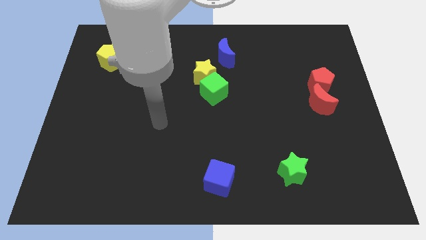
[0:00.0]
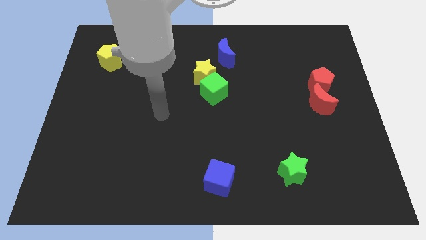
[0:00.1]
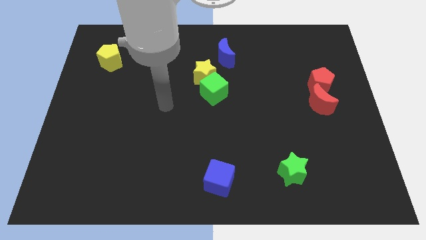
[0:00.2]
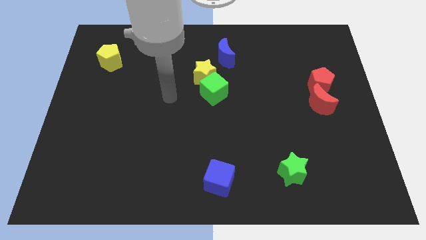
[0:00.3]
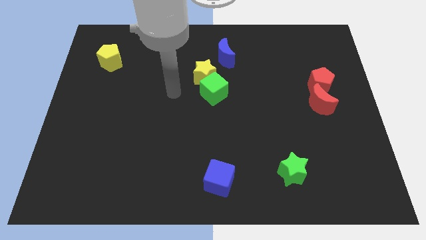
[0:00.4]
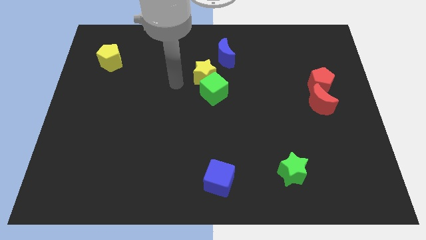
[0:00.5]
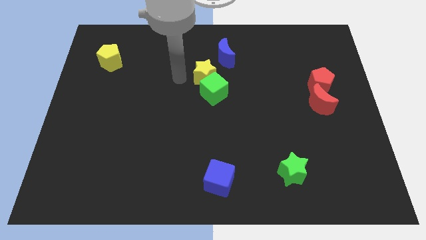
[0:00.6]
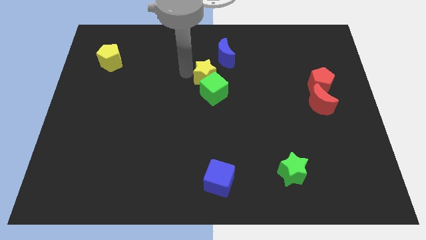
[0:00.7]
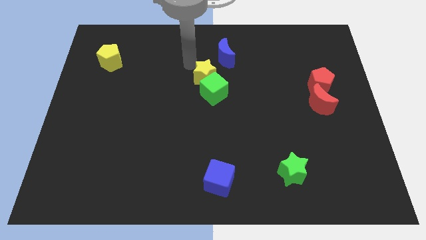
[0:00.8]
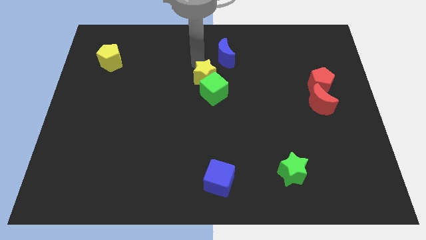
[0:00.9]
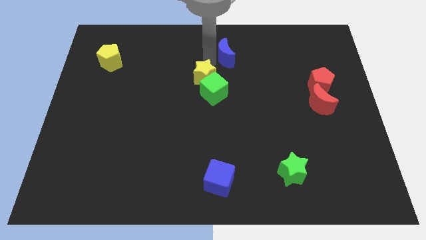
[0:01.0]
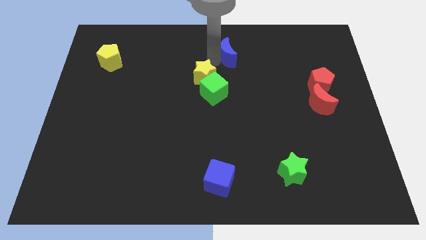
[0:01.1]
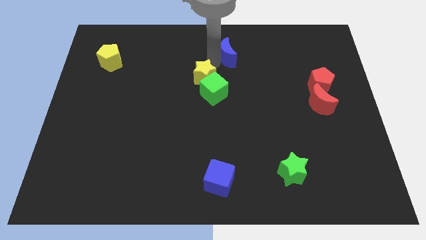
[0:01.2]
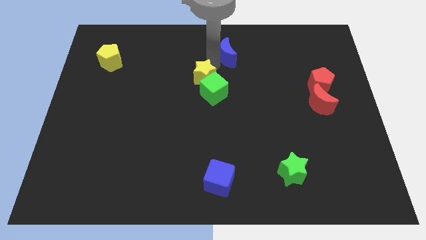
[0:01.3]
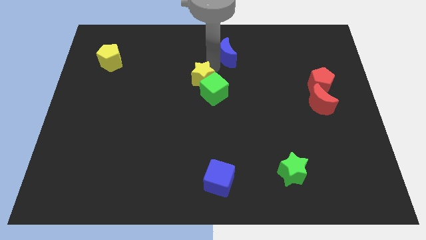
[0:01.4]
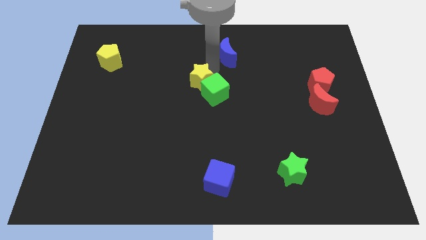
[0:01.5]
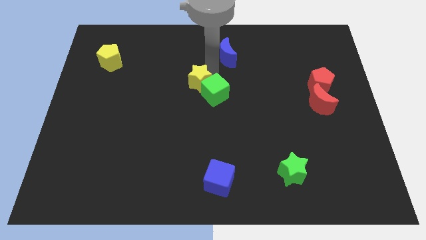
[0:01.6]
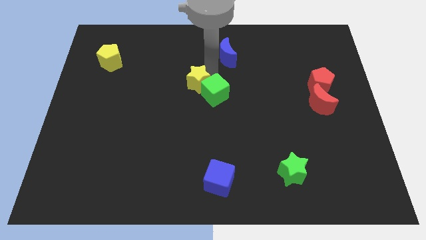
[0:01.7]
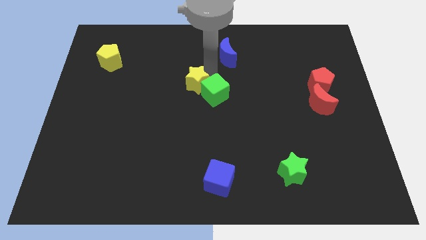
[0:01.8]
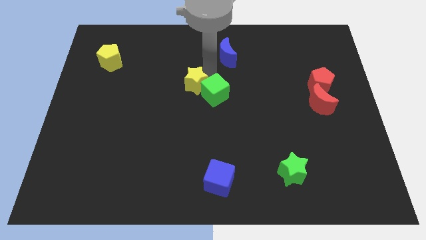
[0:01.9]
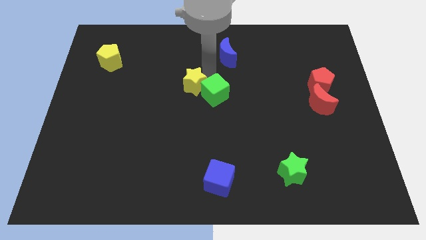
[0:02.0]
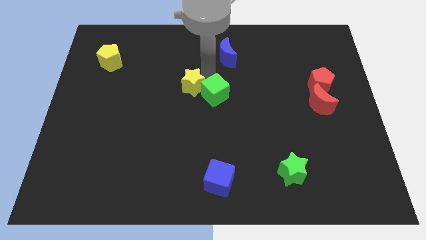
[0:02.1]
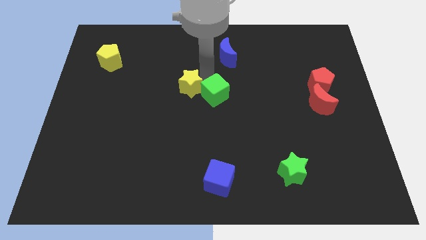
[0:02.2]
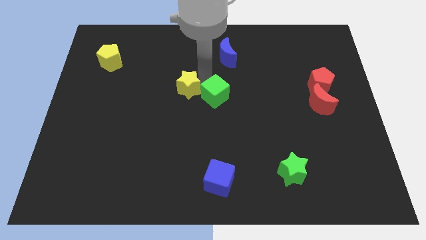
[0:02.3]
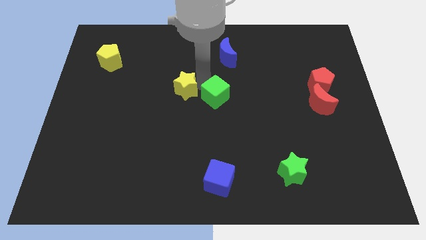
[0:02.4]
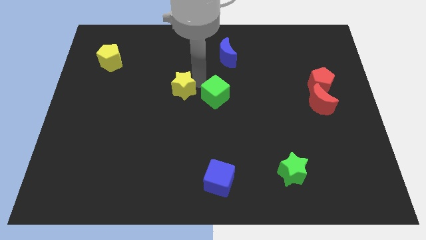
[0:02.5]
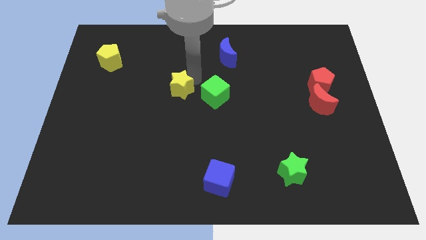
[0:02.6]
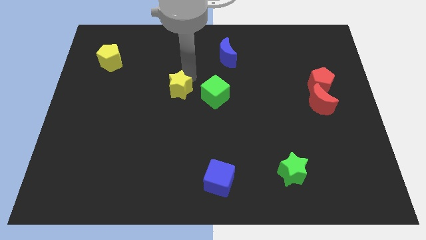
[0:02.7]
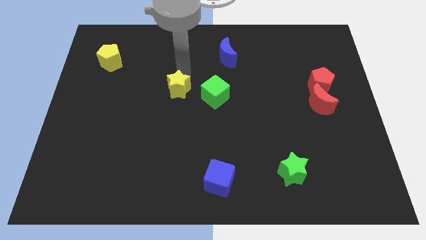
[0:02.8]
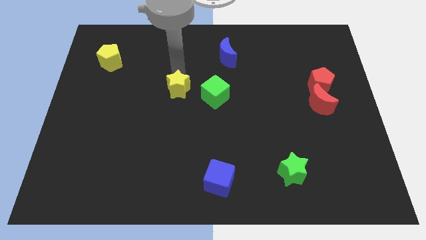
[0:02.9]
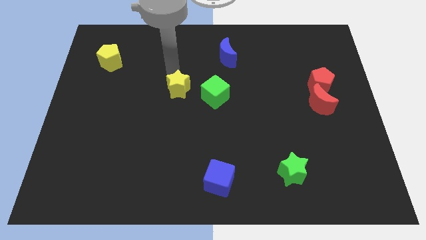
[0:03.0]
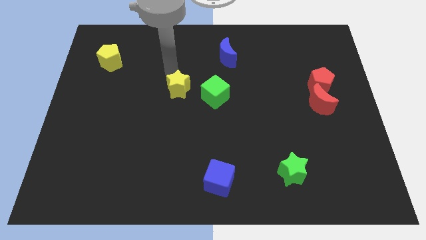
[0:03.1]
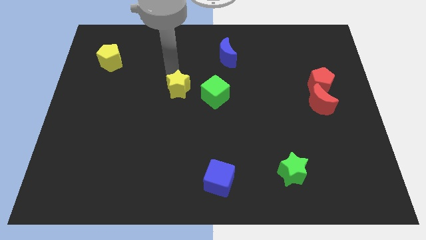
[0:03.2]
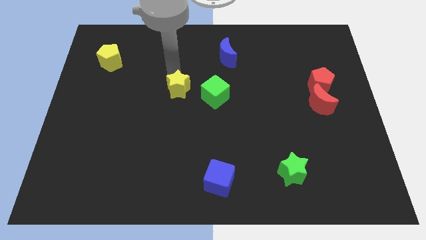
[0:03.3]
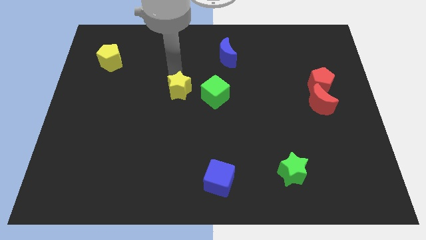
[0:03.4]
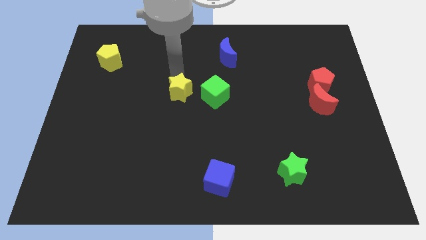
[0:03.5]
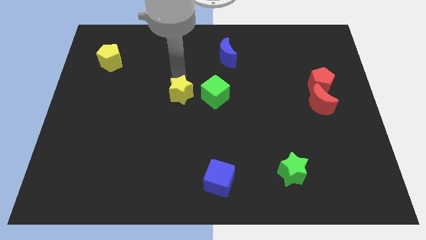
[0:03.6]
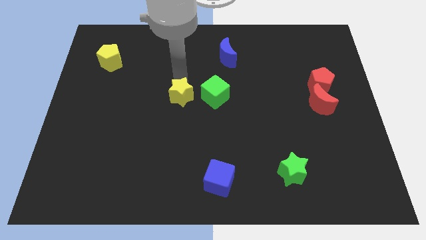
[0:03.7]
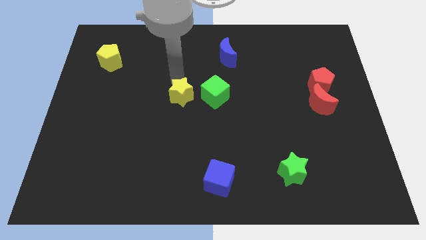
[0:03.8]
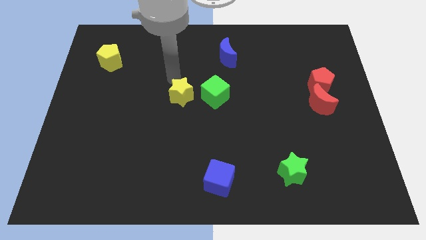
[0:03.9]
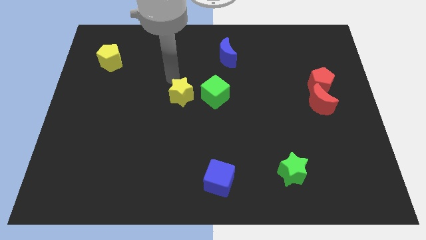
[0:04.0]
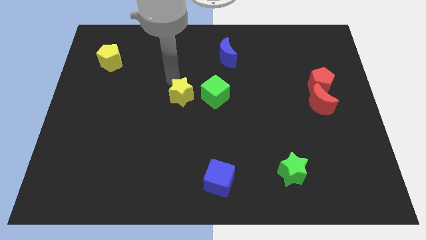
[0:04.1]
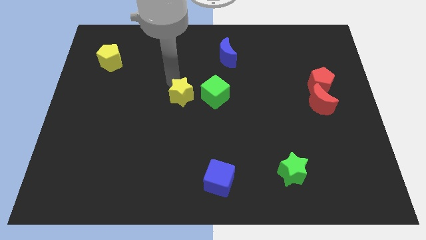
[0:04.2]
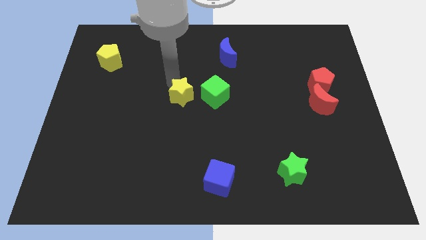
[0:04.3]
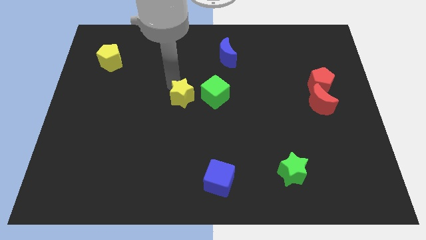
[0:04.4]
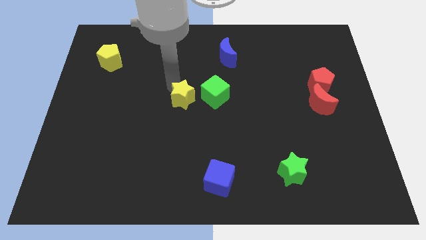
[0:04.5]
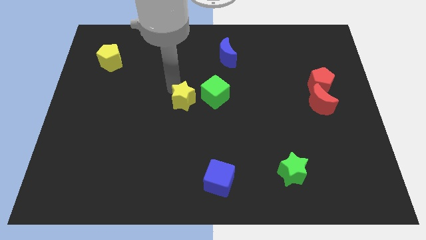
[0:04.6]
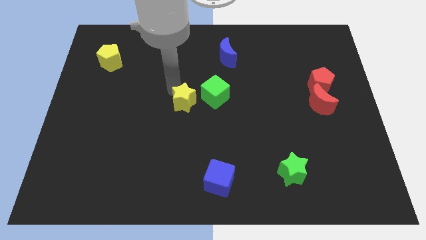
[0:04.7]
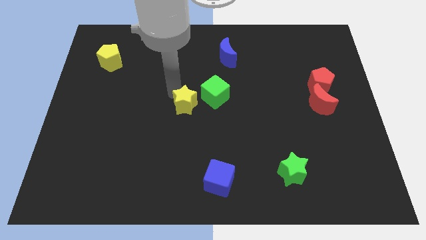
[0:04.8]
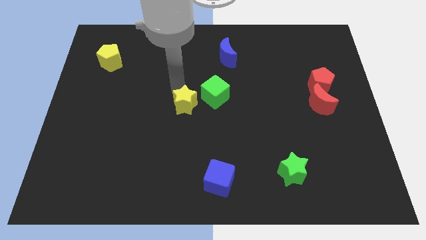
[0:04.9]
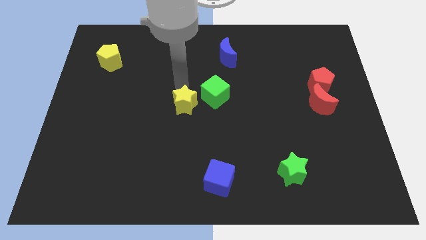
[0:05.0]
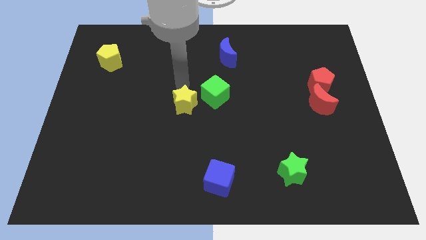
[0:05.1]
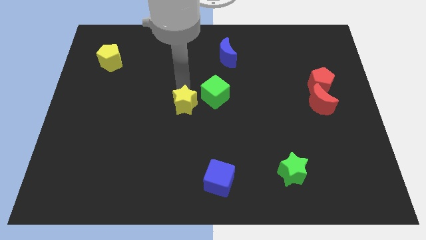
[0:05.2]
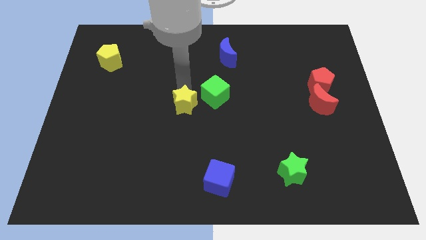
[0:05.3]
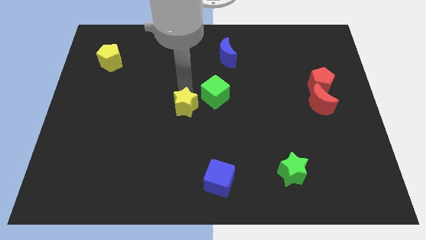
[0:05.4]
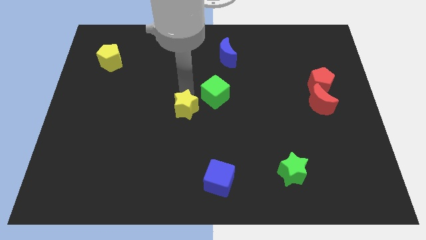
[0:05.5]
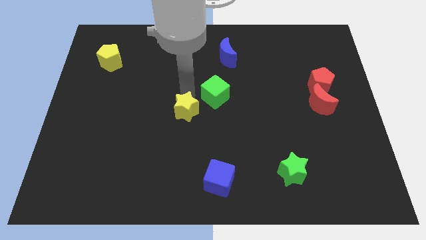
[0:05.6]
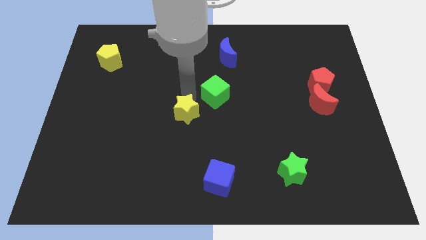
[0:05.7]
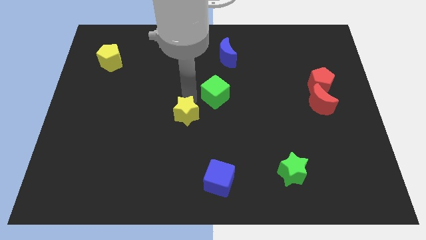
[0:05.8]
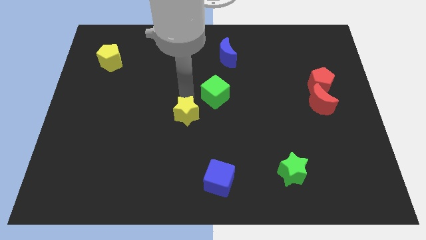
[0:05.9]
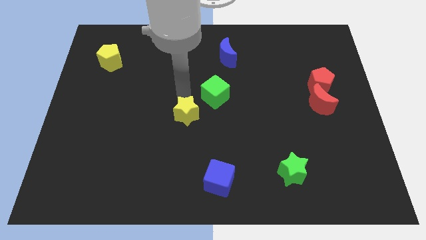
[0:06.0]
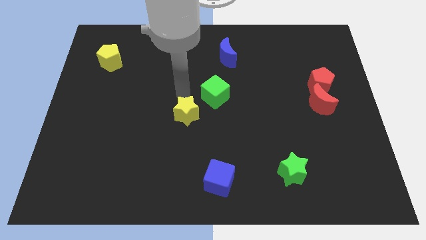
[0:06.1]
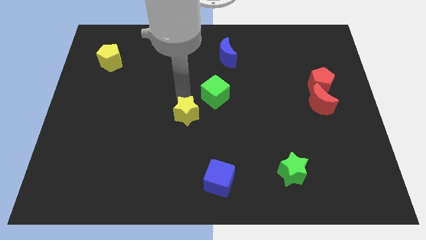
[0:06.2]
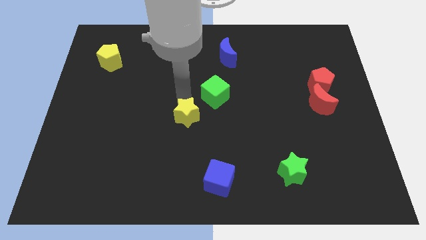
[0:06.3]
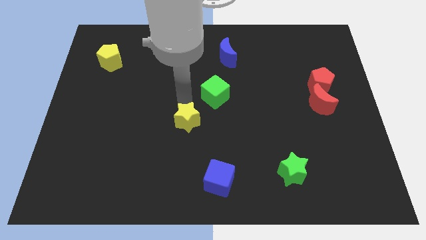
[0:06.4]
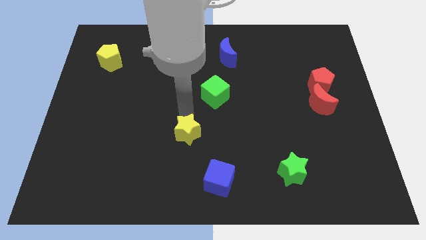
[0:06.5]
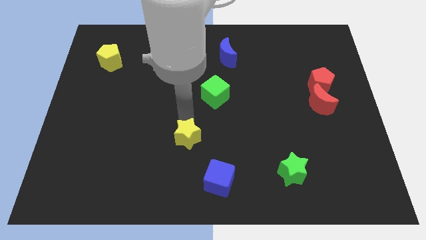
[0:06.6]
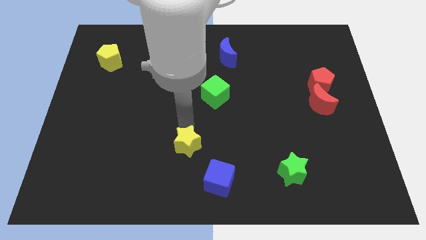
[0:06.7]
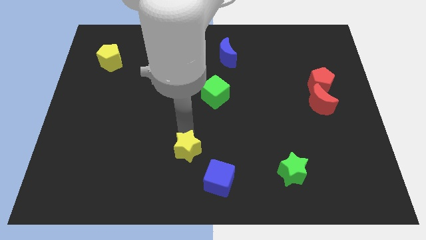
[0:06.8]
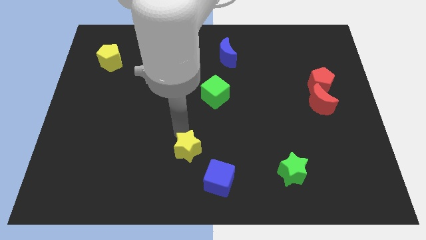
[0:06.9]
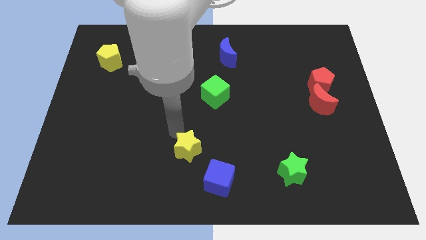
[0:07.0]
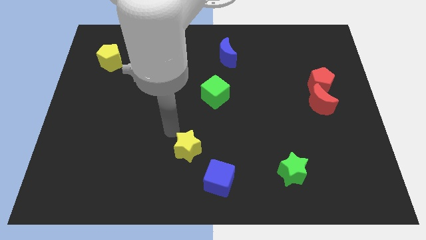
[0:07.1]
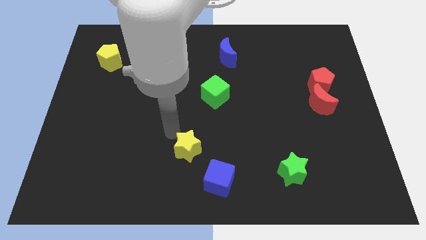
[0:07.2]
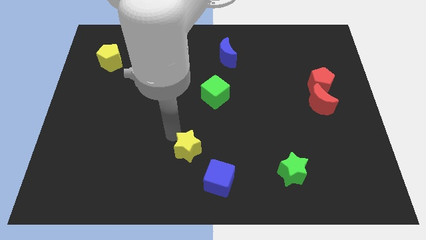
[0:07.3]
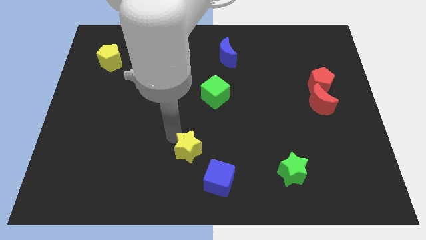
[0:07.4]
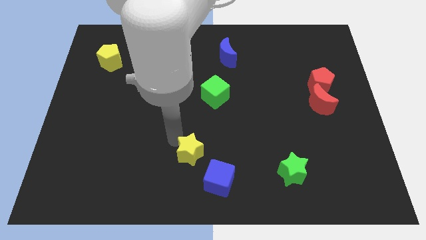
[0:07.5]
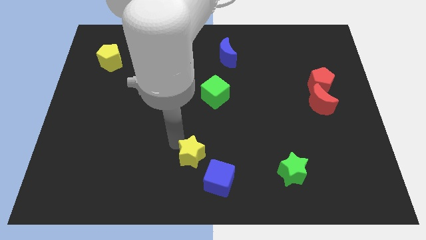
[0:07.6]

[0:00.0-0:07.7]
push the yellow star to the bottom
